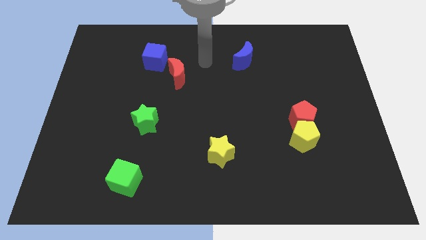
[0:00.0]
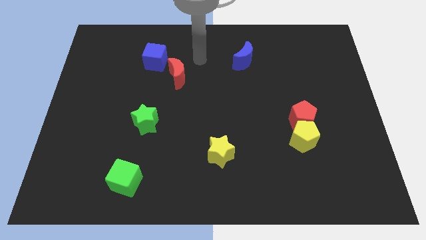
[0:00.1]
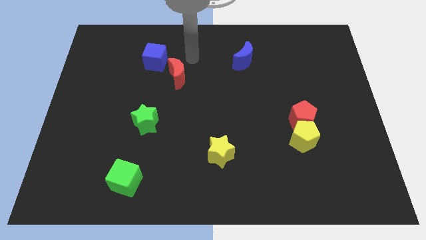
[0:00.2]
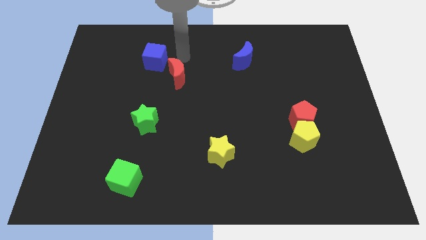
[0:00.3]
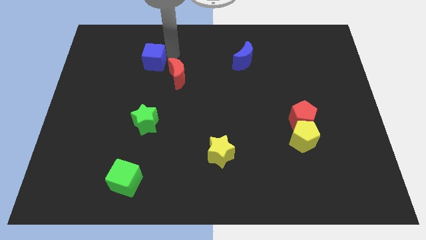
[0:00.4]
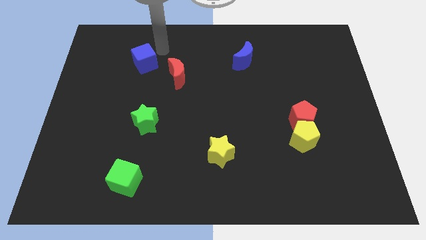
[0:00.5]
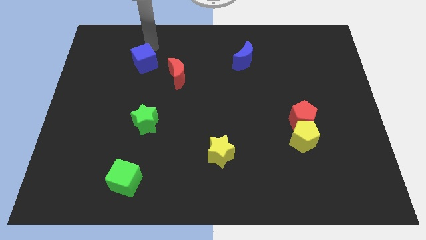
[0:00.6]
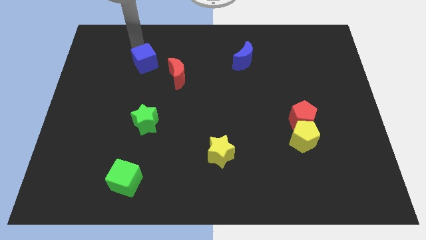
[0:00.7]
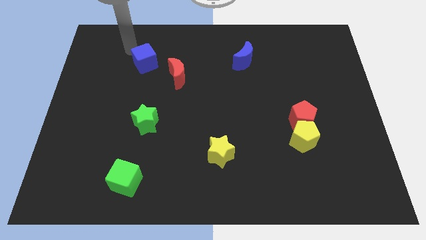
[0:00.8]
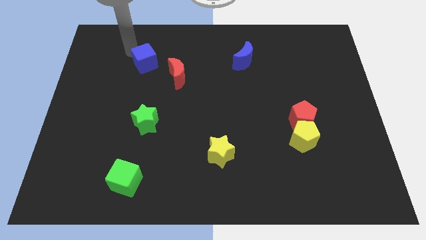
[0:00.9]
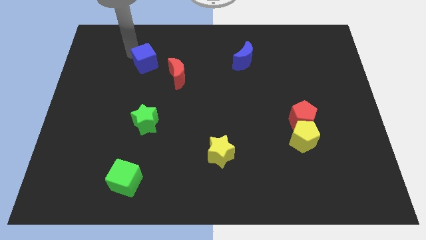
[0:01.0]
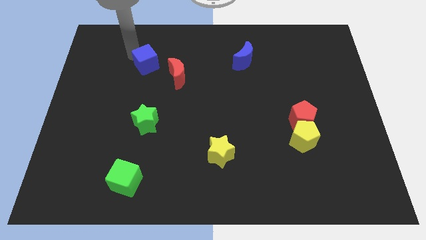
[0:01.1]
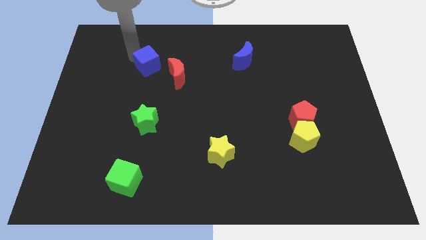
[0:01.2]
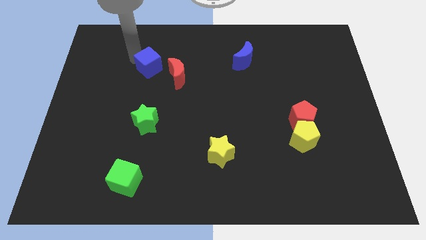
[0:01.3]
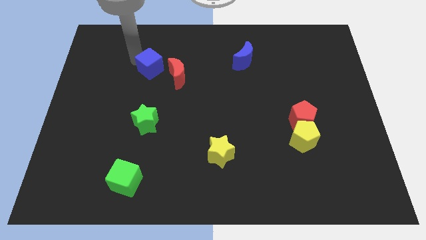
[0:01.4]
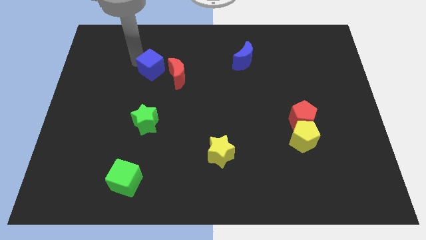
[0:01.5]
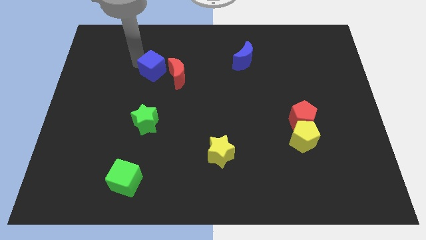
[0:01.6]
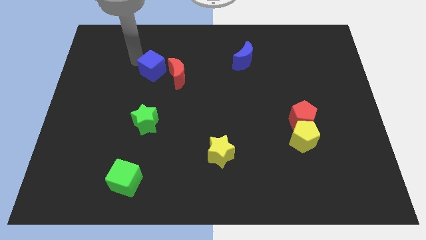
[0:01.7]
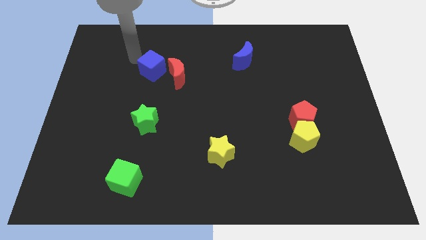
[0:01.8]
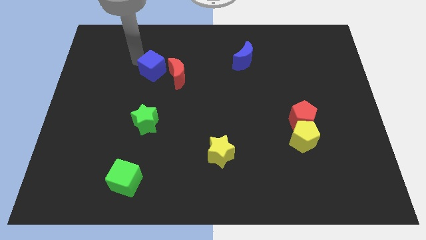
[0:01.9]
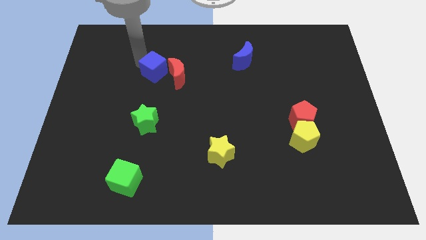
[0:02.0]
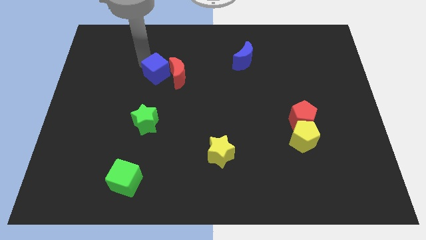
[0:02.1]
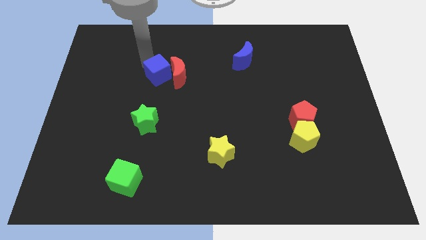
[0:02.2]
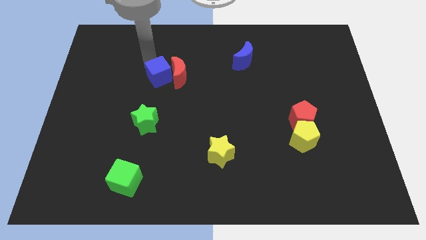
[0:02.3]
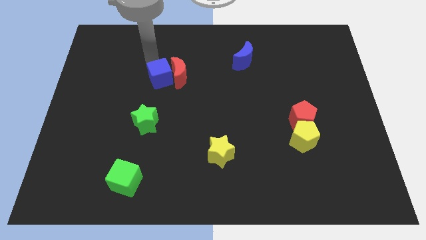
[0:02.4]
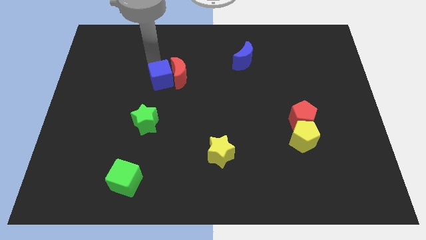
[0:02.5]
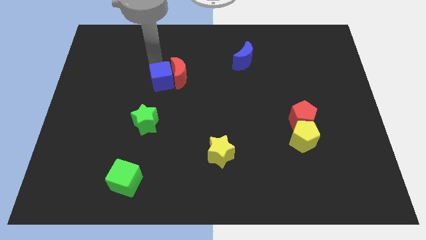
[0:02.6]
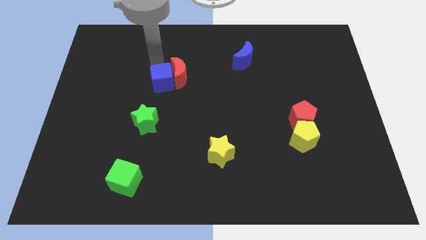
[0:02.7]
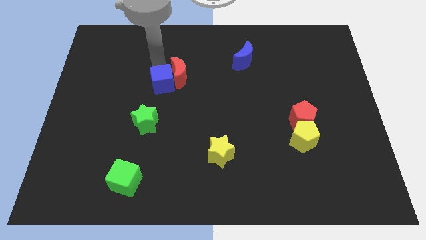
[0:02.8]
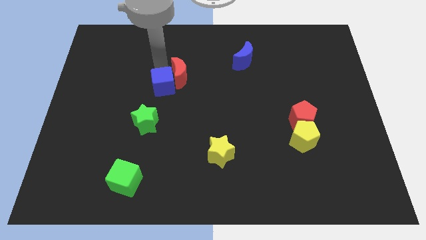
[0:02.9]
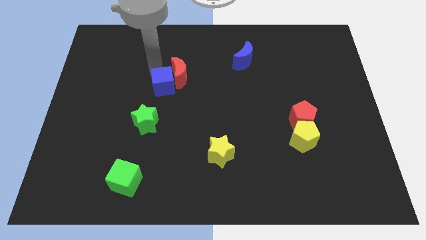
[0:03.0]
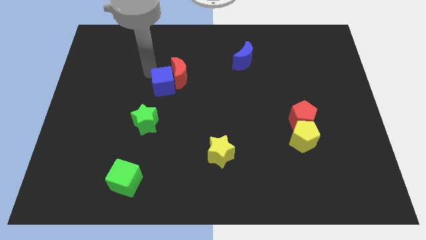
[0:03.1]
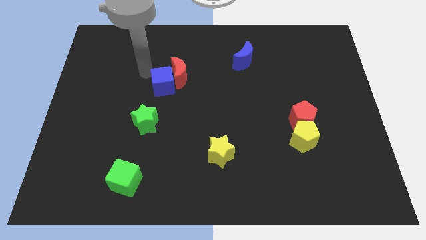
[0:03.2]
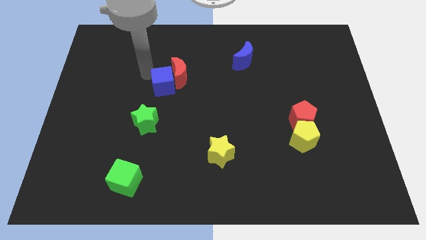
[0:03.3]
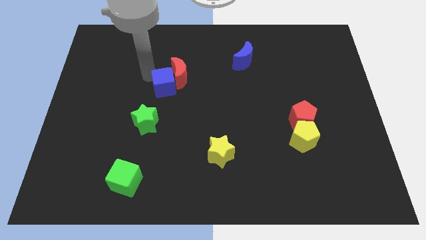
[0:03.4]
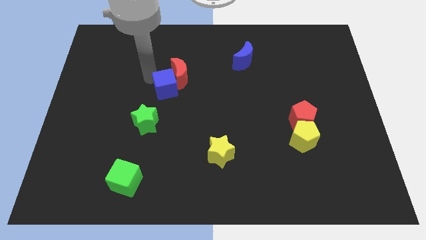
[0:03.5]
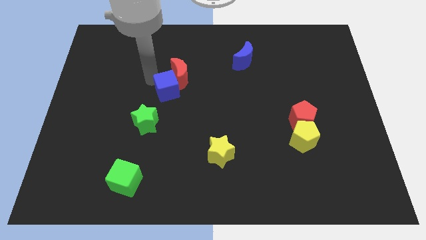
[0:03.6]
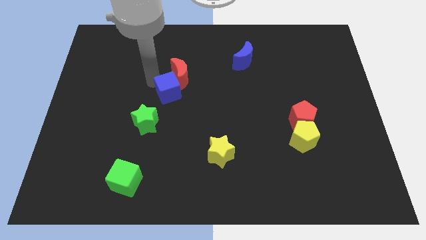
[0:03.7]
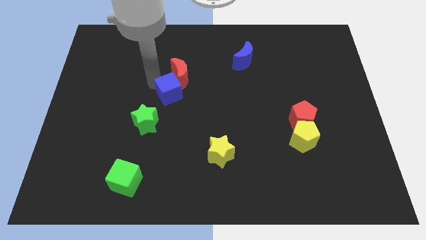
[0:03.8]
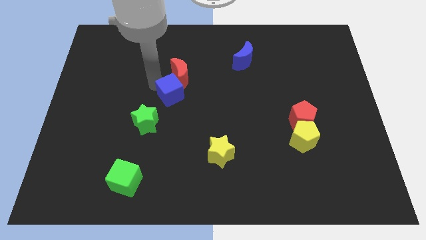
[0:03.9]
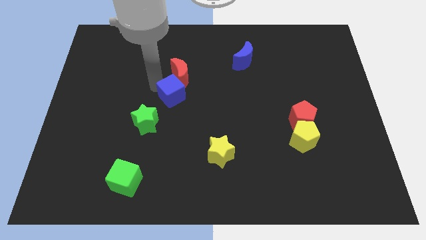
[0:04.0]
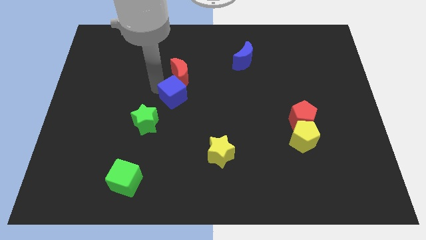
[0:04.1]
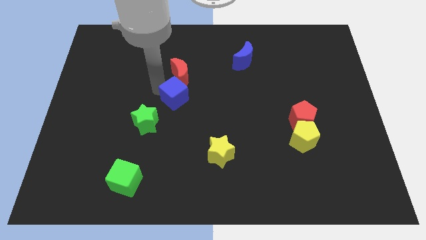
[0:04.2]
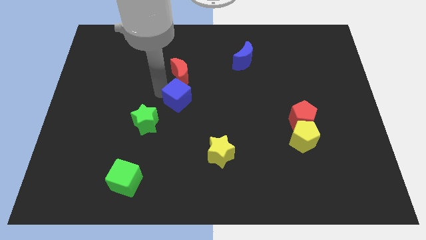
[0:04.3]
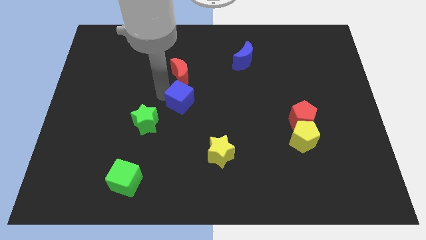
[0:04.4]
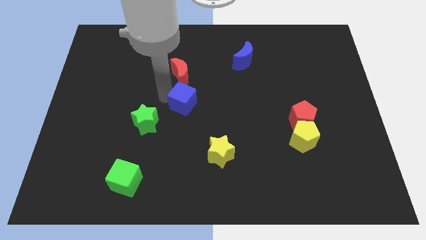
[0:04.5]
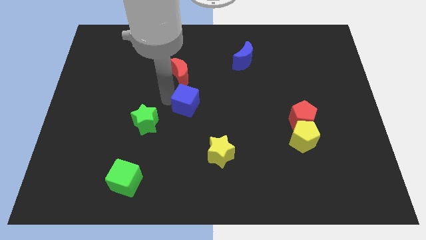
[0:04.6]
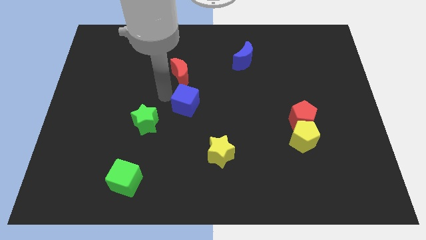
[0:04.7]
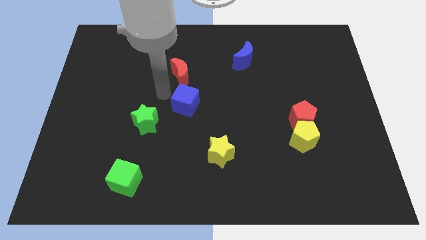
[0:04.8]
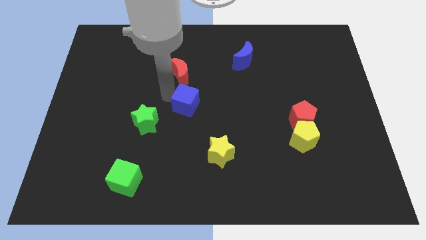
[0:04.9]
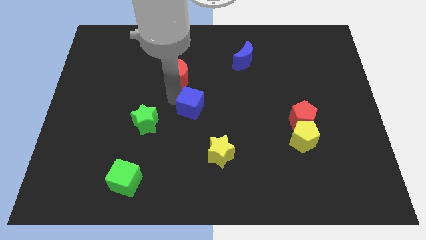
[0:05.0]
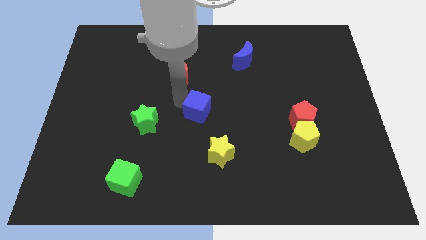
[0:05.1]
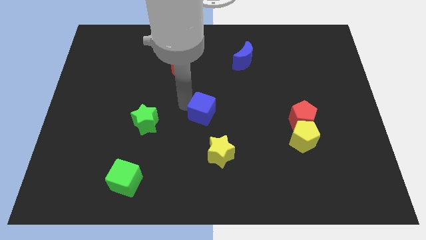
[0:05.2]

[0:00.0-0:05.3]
slide the blue cube downwards and then to the right

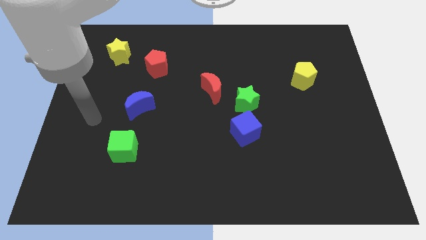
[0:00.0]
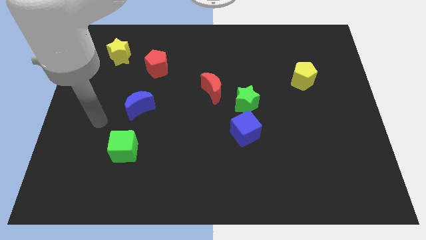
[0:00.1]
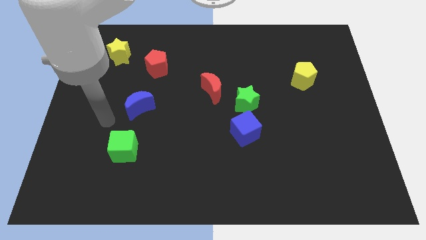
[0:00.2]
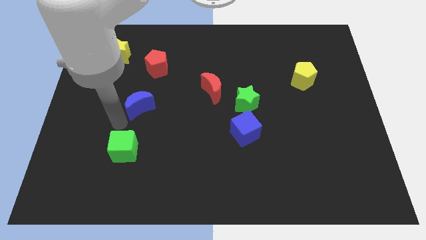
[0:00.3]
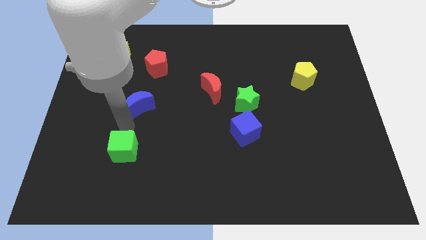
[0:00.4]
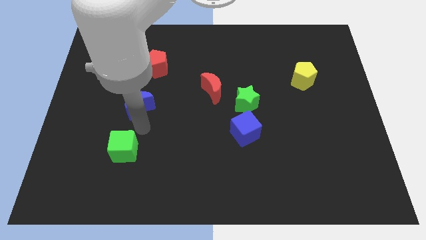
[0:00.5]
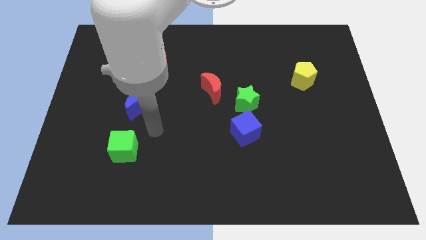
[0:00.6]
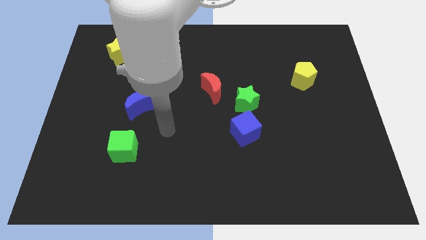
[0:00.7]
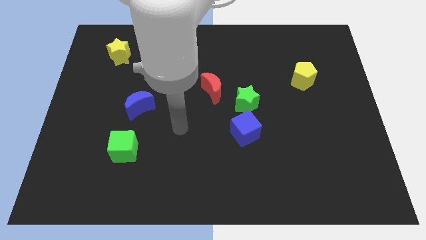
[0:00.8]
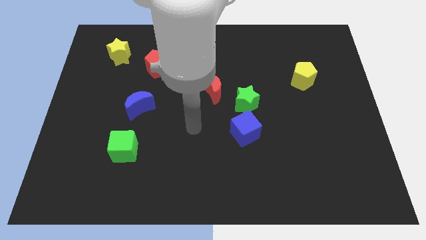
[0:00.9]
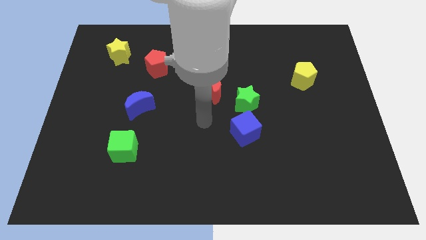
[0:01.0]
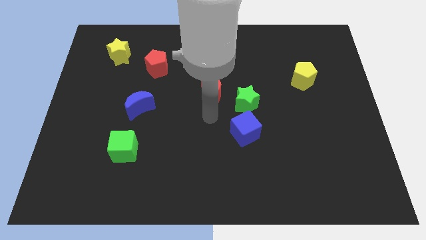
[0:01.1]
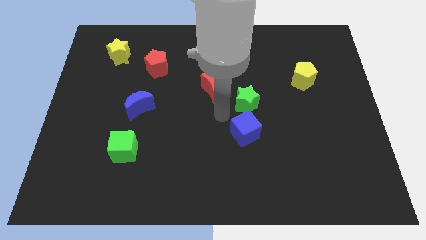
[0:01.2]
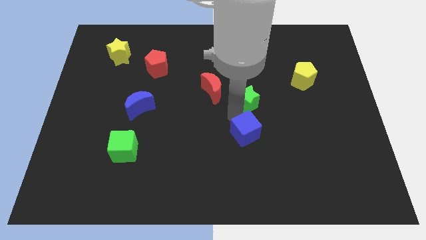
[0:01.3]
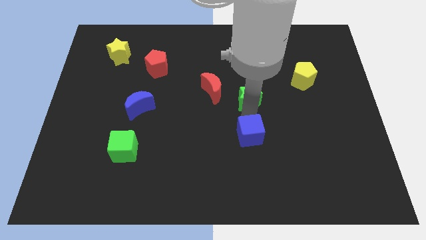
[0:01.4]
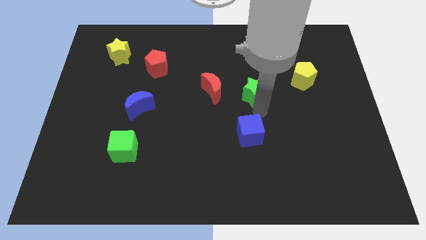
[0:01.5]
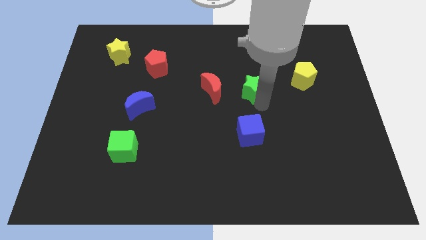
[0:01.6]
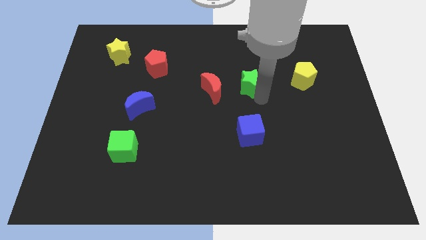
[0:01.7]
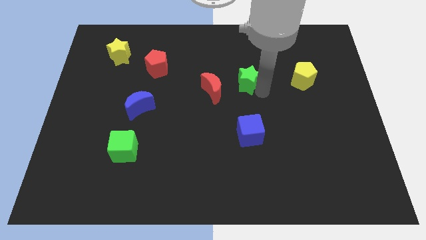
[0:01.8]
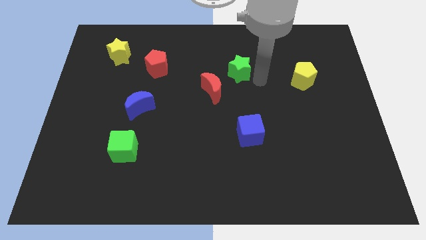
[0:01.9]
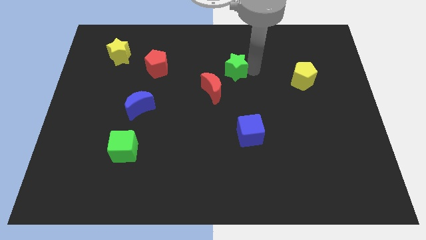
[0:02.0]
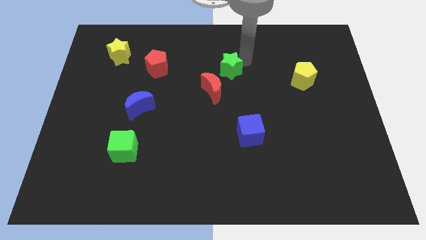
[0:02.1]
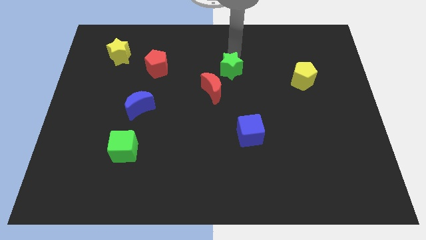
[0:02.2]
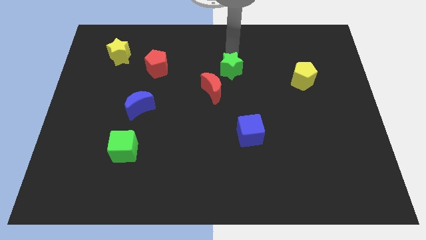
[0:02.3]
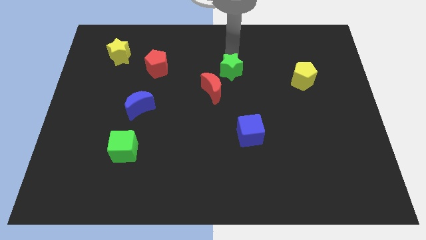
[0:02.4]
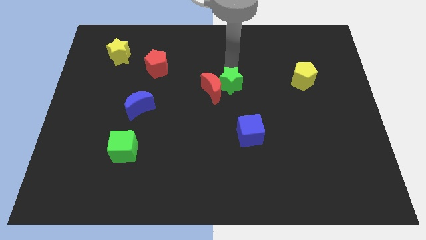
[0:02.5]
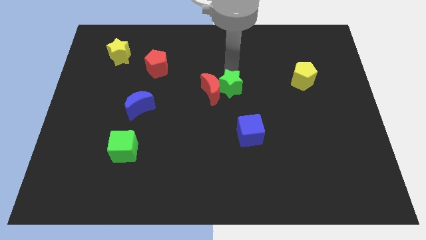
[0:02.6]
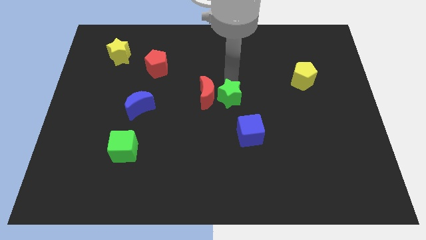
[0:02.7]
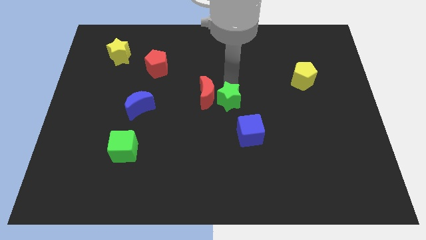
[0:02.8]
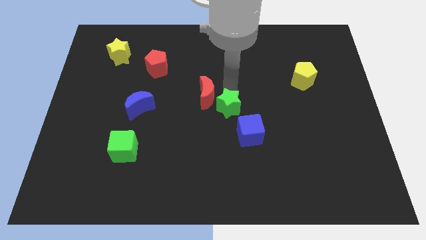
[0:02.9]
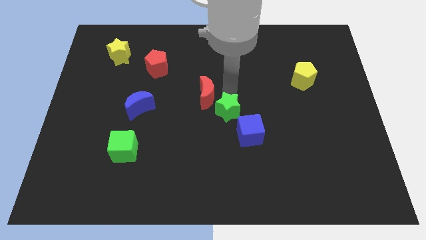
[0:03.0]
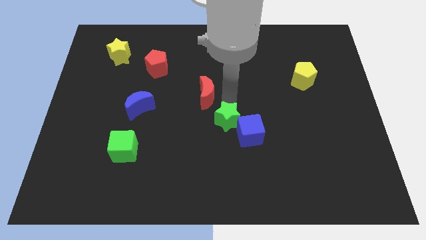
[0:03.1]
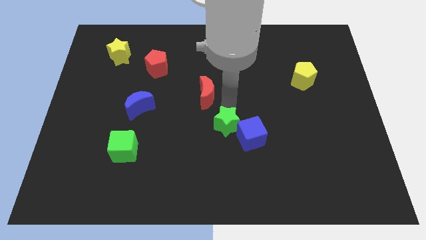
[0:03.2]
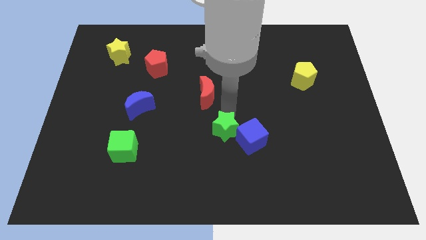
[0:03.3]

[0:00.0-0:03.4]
move the green star a little bit downwards
